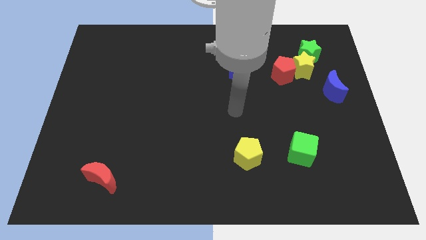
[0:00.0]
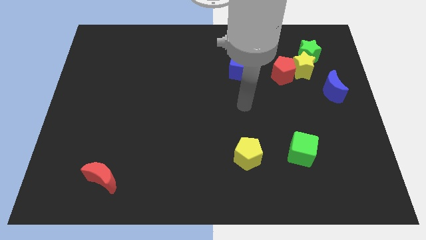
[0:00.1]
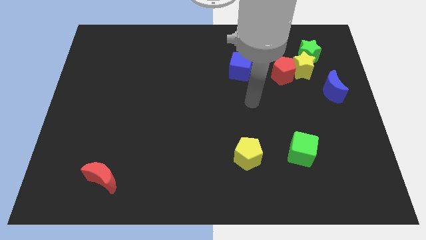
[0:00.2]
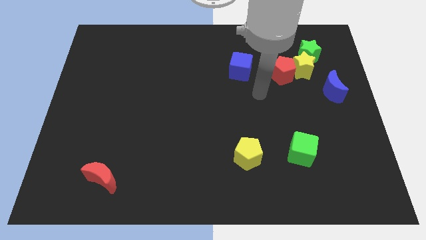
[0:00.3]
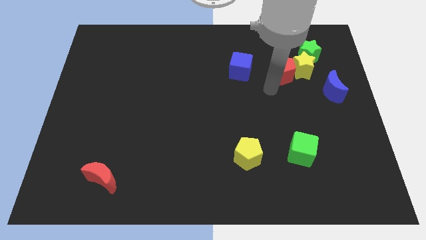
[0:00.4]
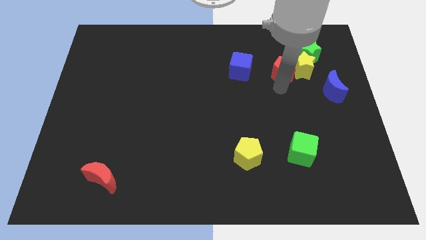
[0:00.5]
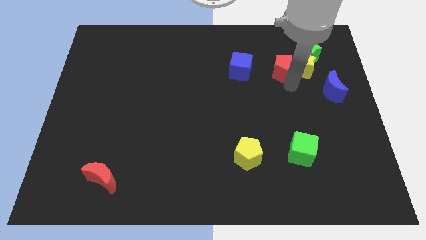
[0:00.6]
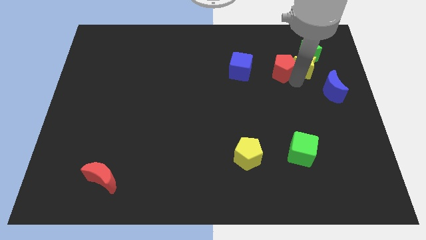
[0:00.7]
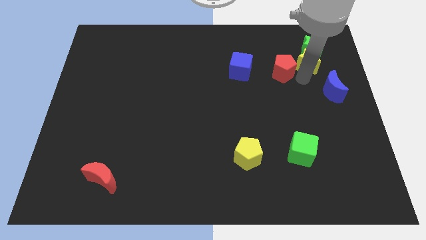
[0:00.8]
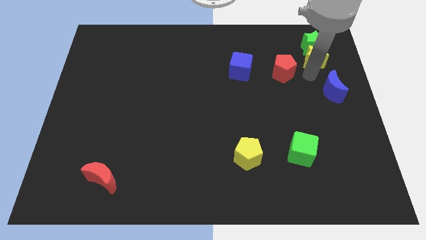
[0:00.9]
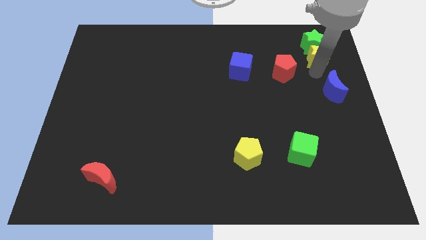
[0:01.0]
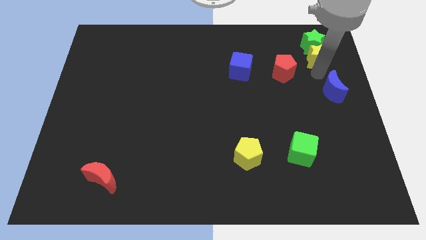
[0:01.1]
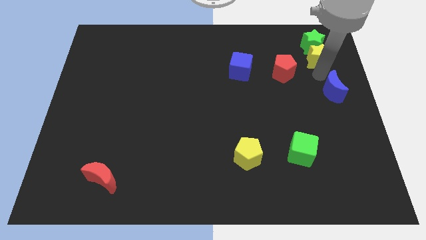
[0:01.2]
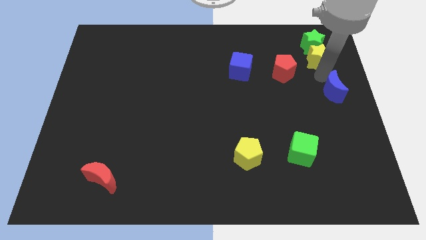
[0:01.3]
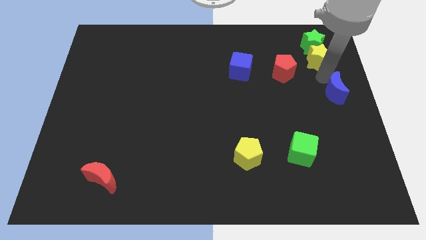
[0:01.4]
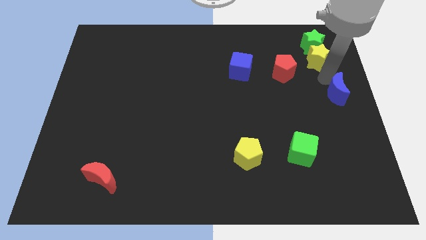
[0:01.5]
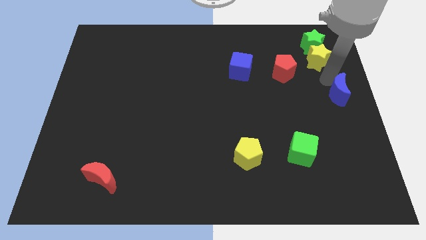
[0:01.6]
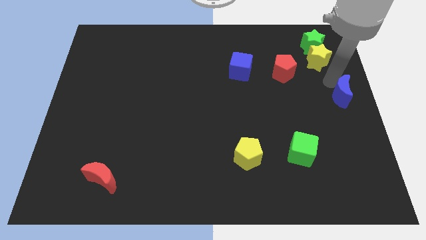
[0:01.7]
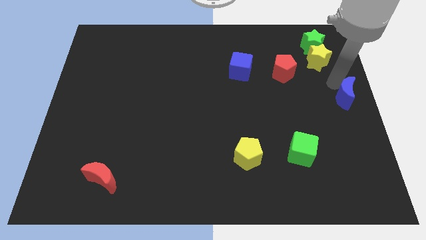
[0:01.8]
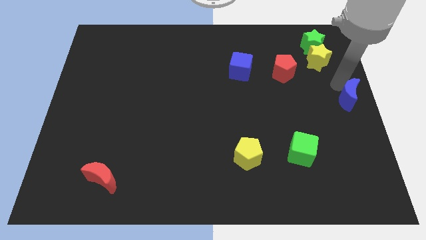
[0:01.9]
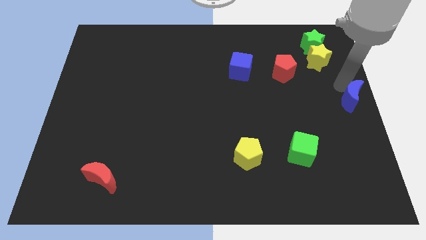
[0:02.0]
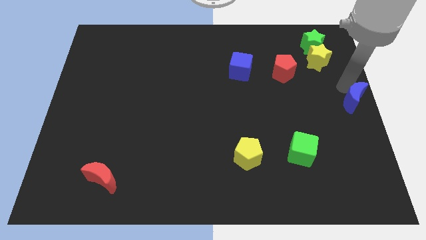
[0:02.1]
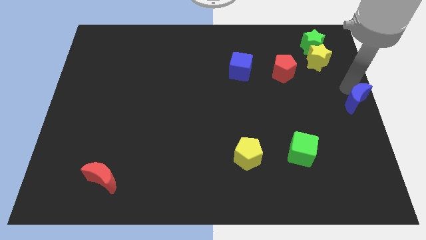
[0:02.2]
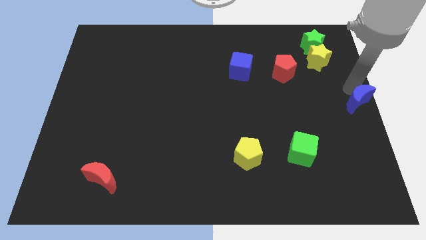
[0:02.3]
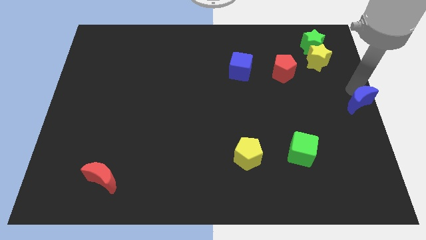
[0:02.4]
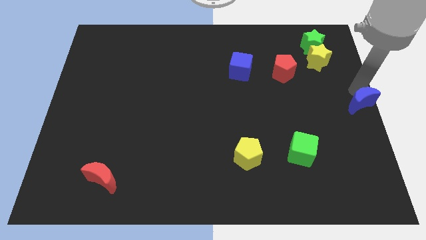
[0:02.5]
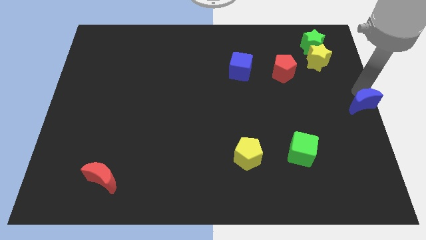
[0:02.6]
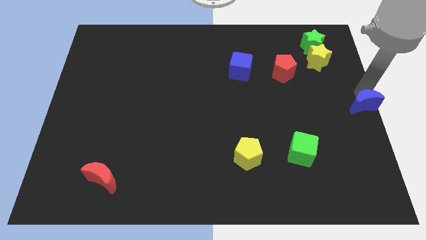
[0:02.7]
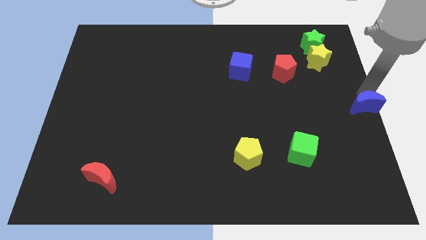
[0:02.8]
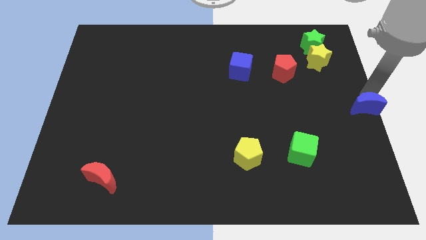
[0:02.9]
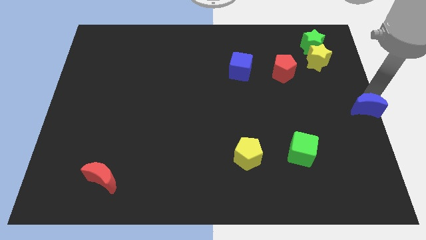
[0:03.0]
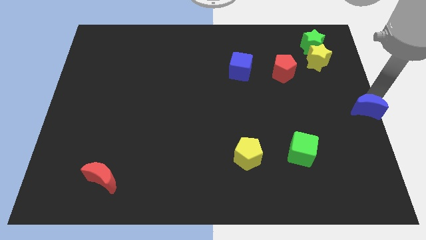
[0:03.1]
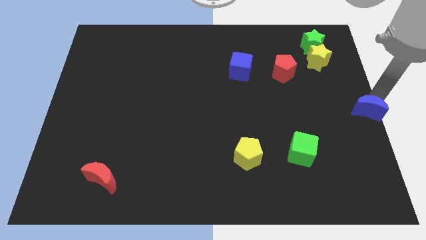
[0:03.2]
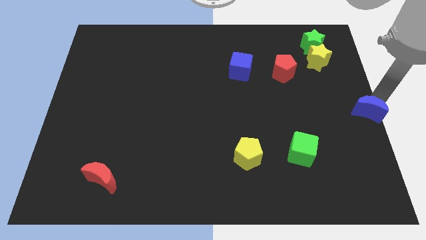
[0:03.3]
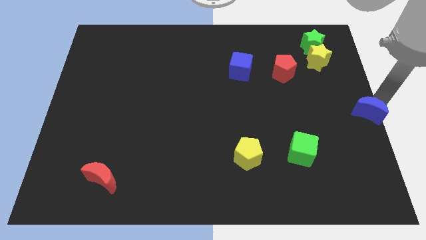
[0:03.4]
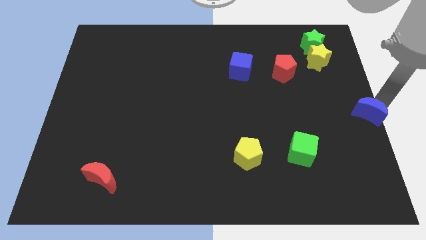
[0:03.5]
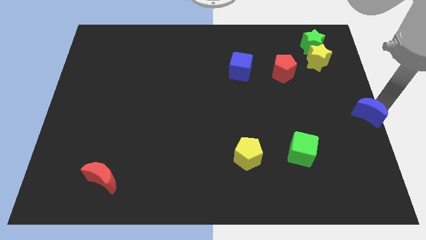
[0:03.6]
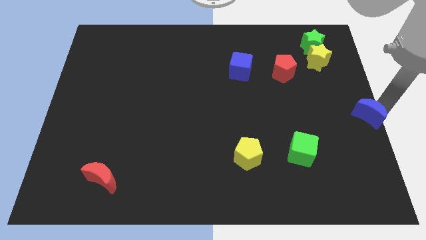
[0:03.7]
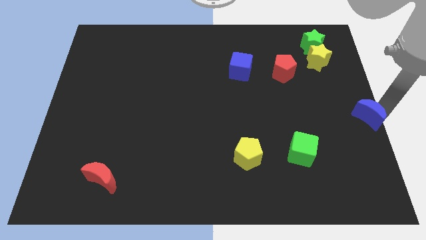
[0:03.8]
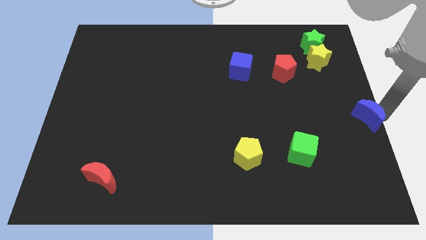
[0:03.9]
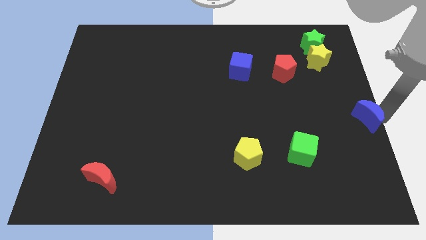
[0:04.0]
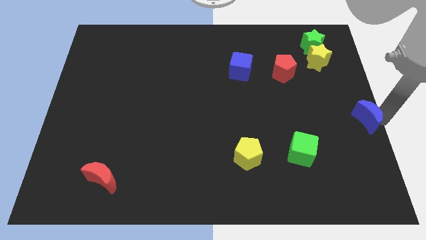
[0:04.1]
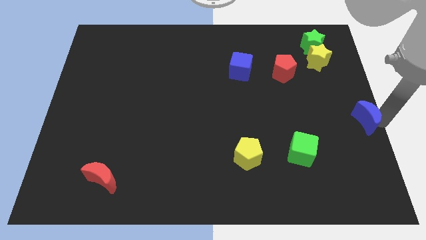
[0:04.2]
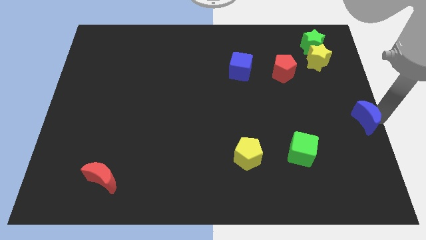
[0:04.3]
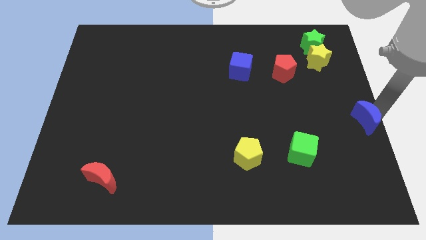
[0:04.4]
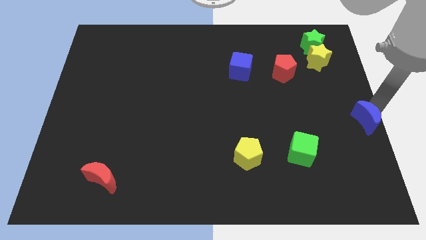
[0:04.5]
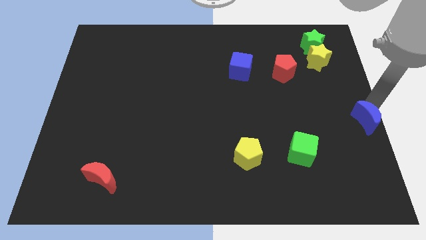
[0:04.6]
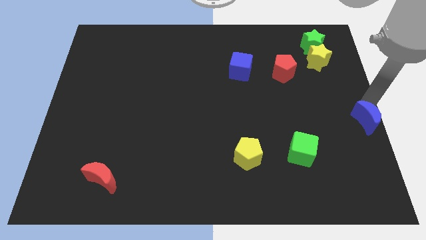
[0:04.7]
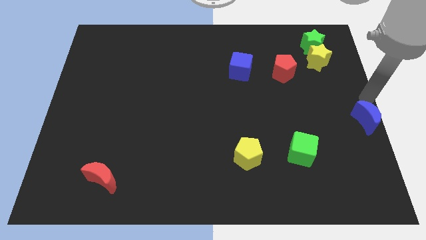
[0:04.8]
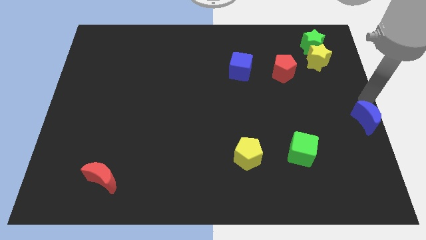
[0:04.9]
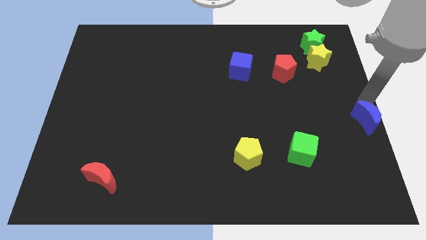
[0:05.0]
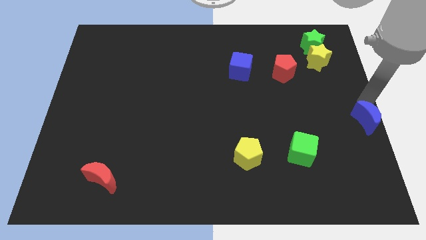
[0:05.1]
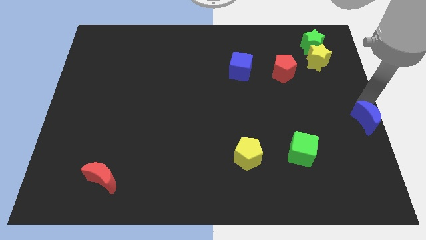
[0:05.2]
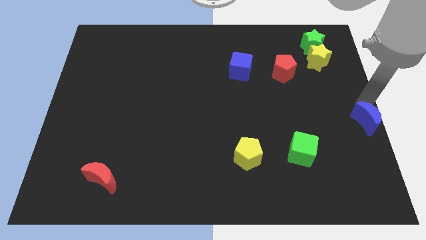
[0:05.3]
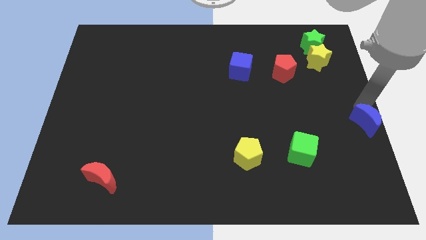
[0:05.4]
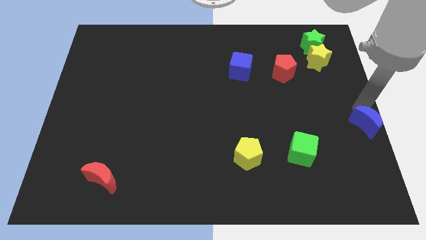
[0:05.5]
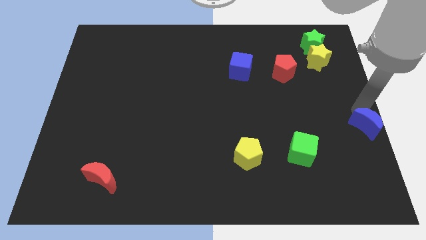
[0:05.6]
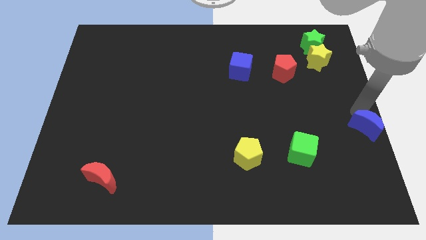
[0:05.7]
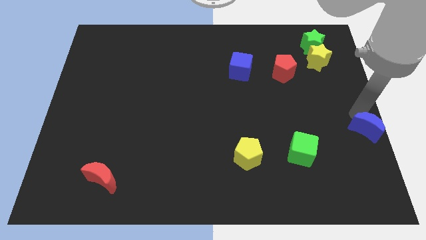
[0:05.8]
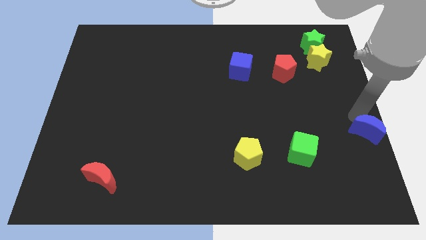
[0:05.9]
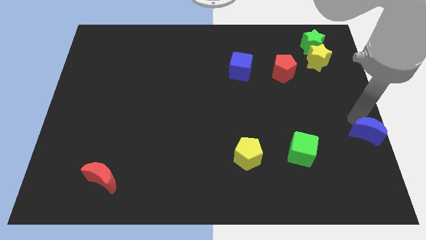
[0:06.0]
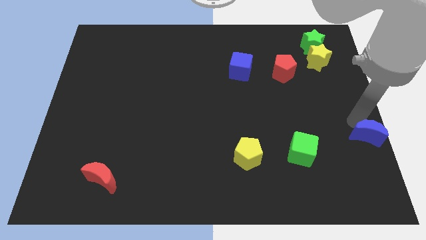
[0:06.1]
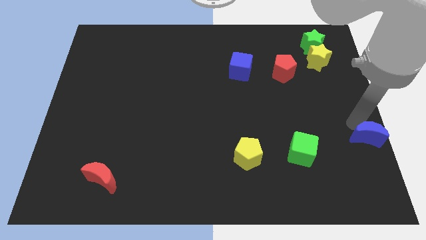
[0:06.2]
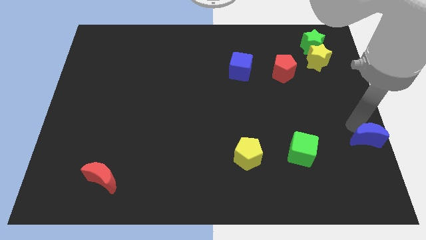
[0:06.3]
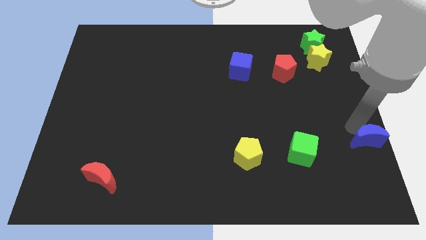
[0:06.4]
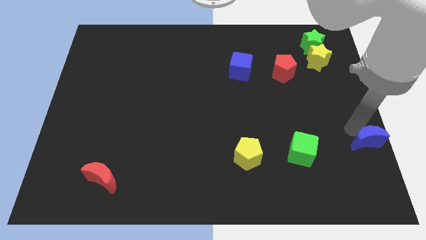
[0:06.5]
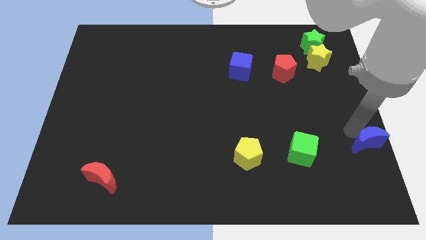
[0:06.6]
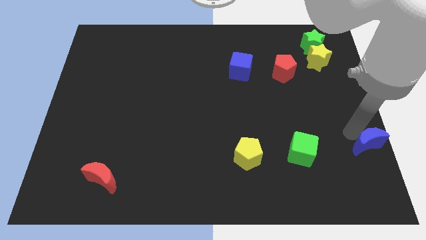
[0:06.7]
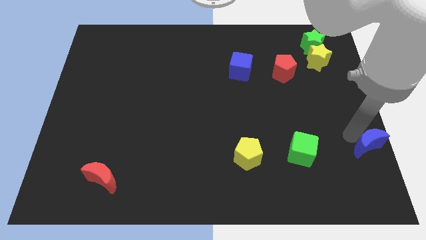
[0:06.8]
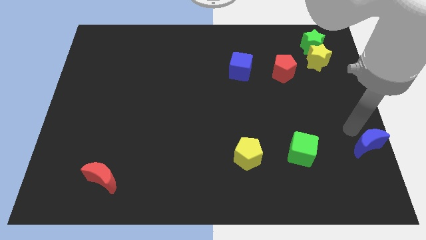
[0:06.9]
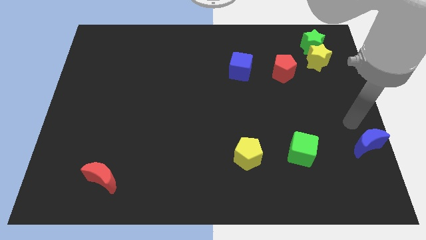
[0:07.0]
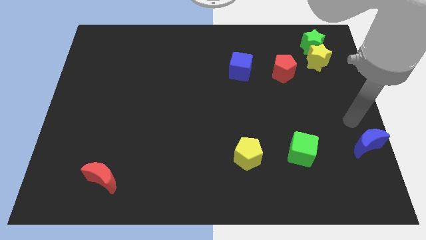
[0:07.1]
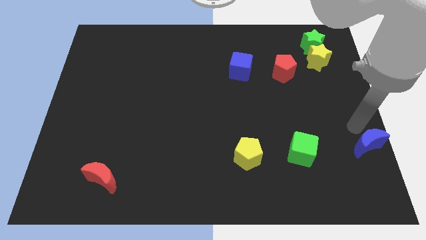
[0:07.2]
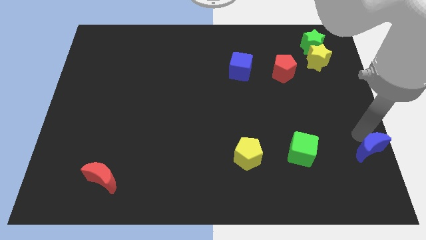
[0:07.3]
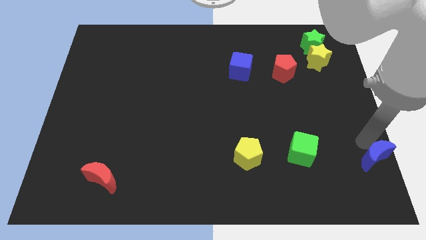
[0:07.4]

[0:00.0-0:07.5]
slide the blue moon to the bottom right corner

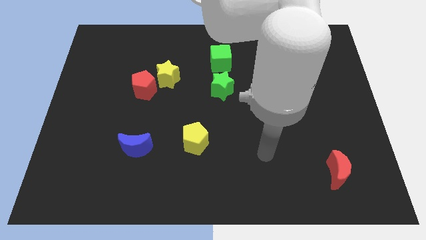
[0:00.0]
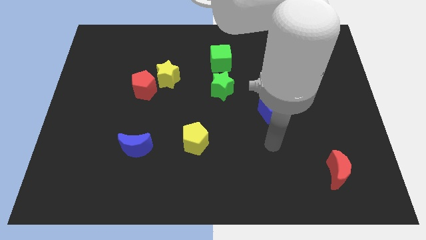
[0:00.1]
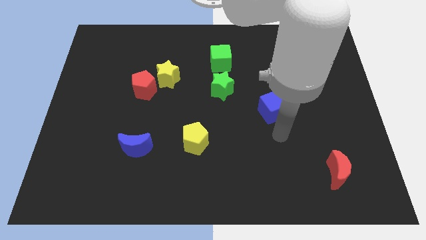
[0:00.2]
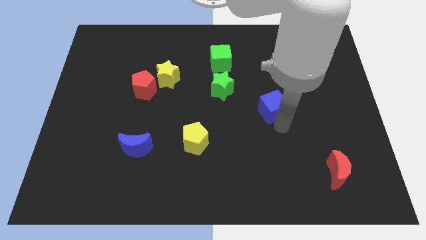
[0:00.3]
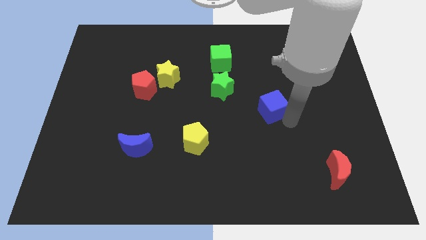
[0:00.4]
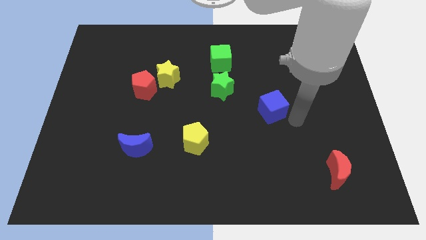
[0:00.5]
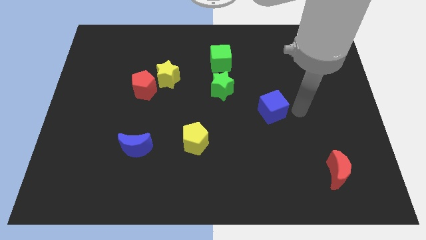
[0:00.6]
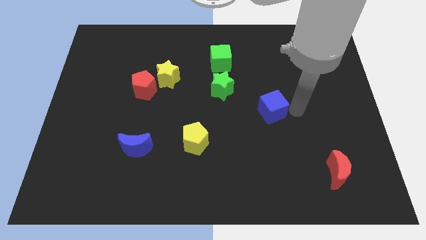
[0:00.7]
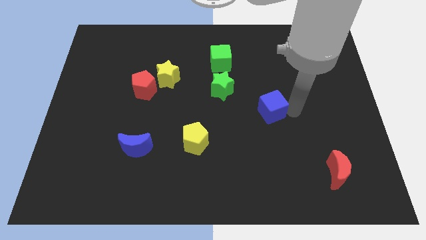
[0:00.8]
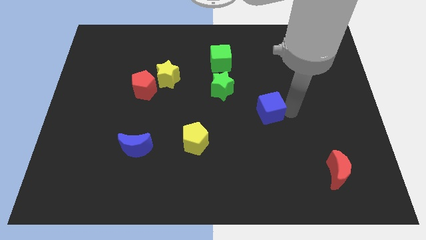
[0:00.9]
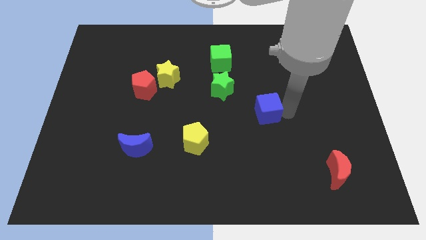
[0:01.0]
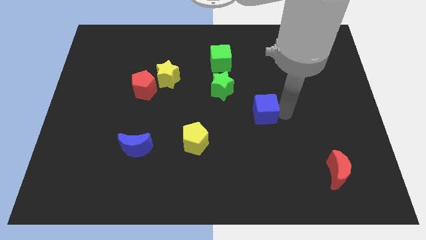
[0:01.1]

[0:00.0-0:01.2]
put the blue cube to the center
